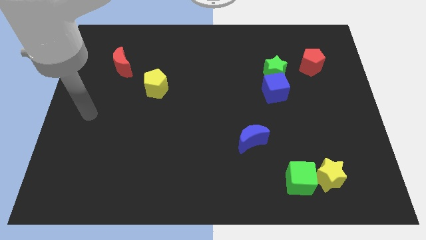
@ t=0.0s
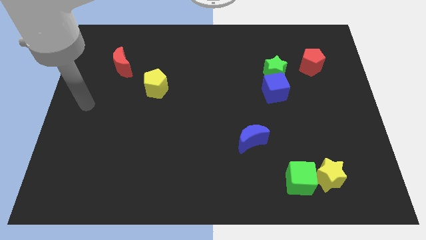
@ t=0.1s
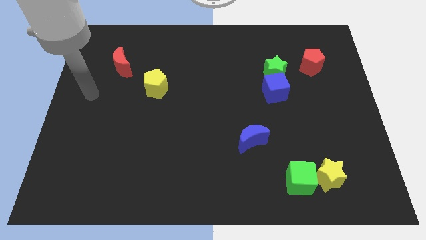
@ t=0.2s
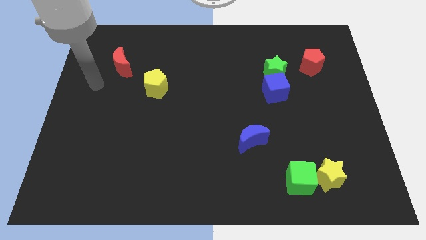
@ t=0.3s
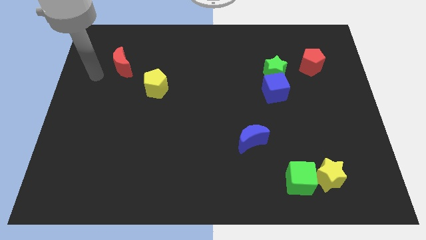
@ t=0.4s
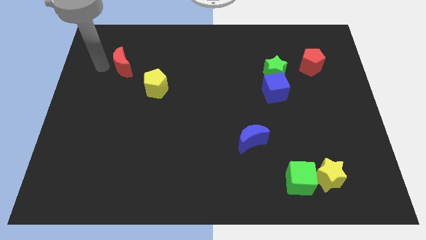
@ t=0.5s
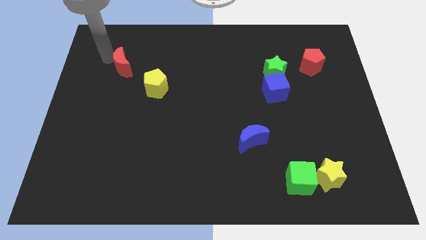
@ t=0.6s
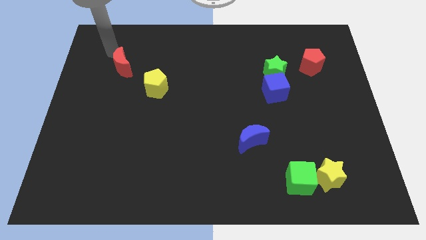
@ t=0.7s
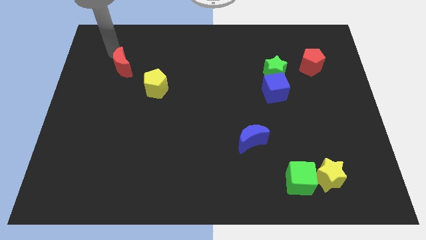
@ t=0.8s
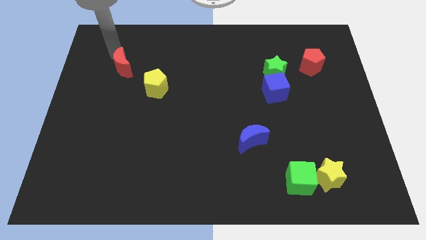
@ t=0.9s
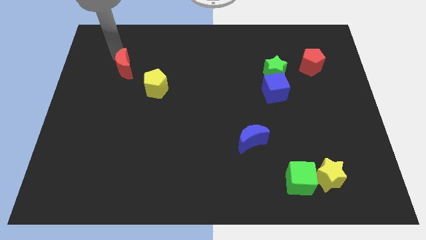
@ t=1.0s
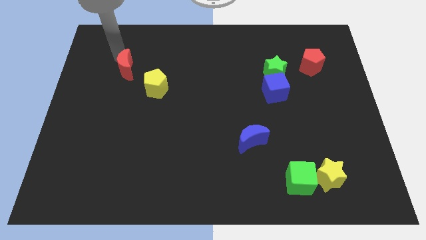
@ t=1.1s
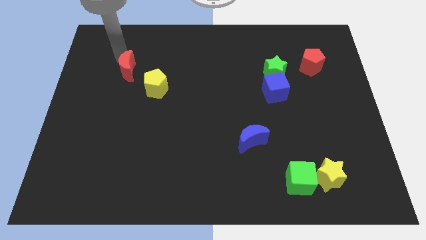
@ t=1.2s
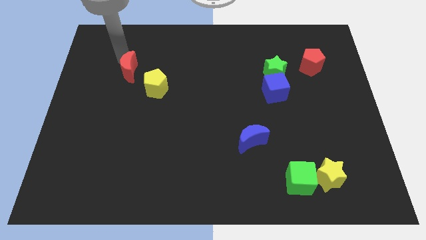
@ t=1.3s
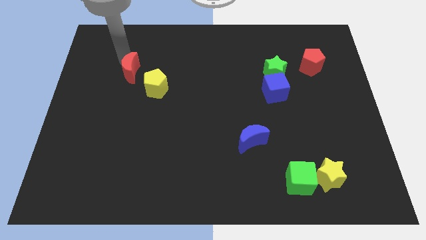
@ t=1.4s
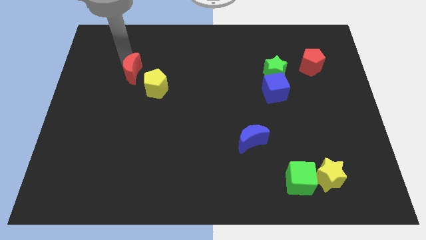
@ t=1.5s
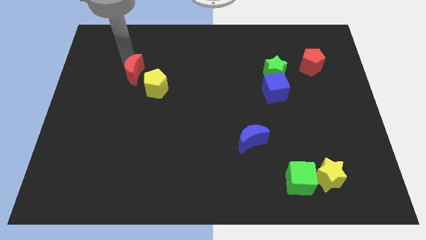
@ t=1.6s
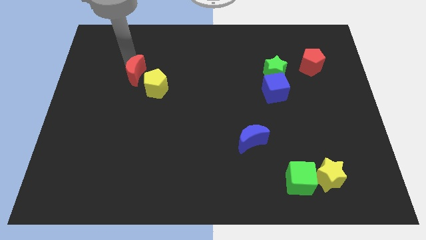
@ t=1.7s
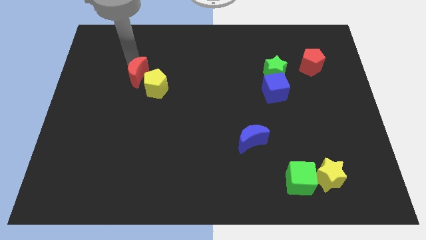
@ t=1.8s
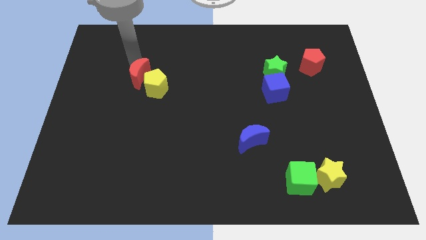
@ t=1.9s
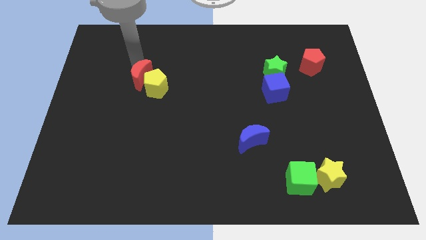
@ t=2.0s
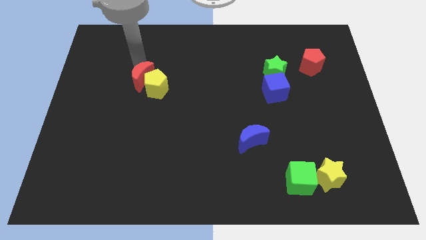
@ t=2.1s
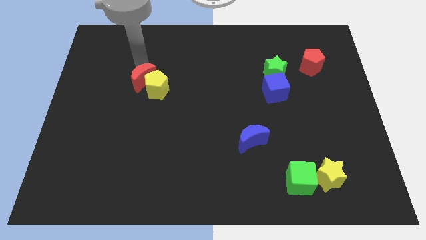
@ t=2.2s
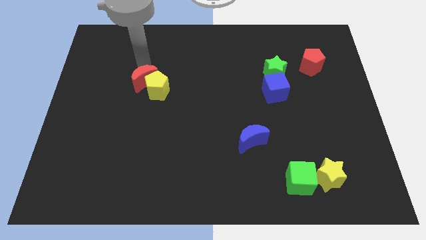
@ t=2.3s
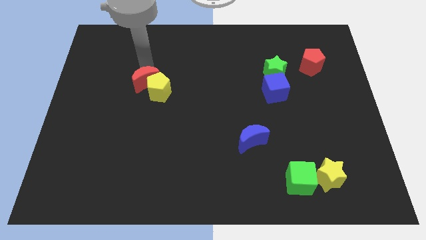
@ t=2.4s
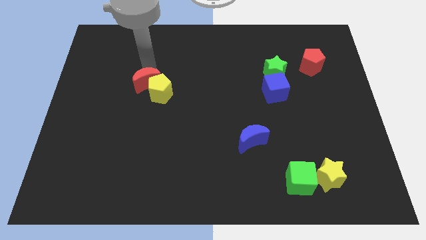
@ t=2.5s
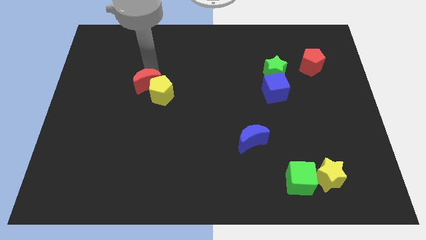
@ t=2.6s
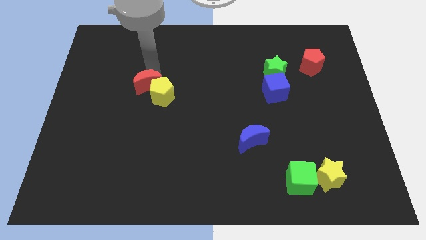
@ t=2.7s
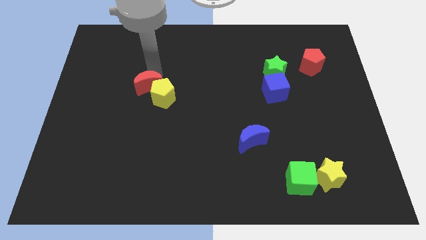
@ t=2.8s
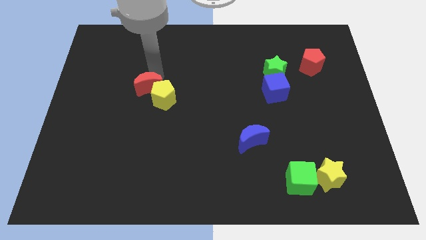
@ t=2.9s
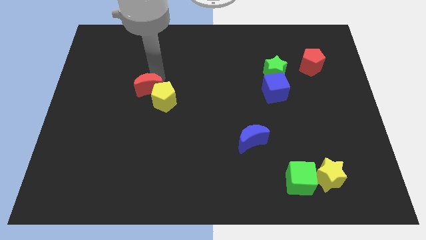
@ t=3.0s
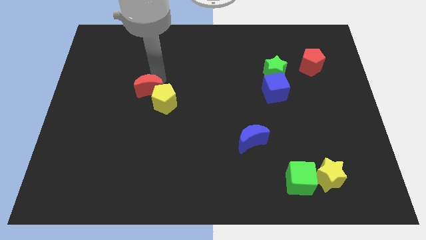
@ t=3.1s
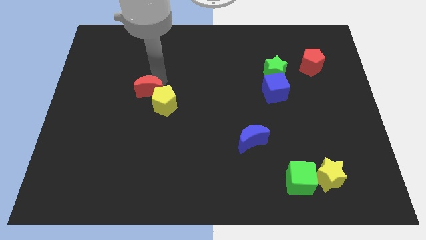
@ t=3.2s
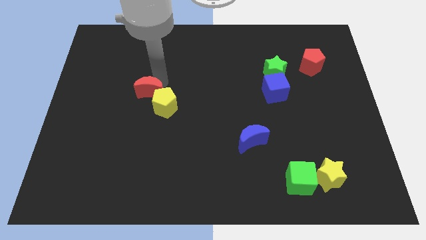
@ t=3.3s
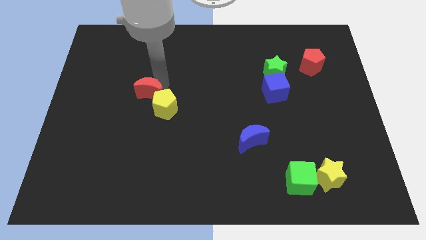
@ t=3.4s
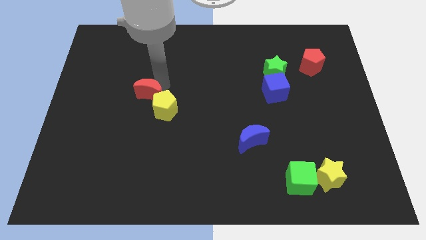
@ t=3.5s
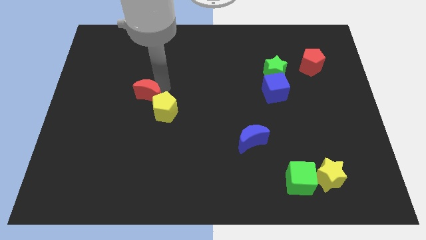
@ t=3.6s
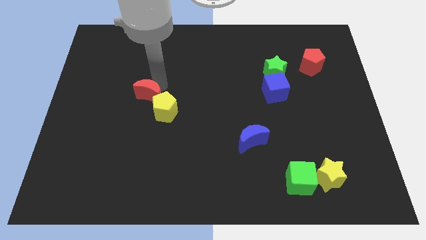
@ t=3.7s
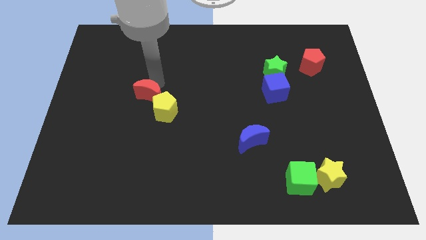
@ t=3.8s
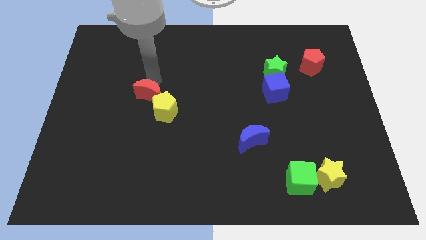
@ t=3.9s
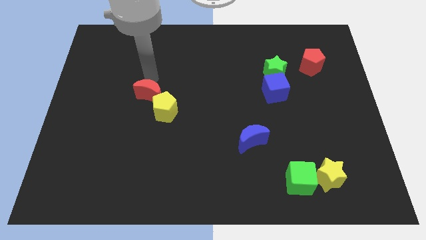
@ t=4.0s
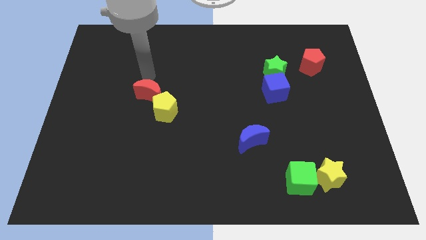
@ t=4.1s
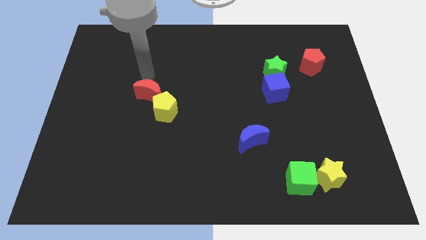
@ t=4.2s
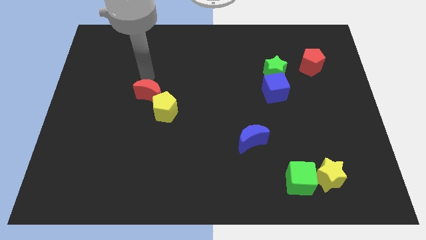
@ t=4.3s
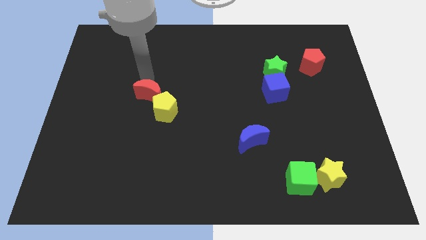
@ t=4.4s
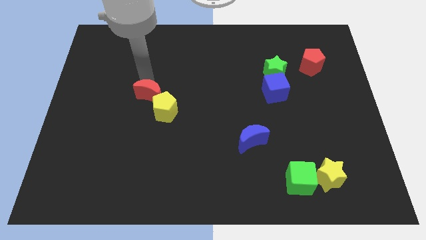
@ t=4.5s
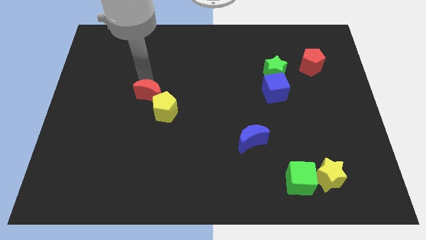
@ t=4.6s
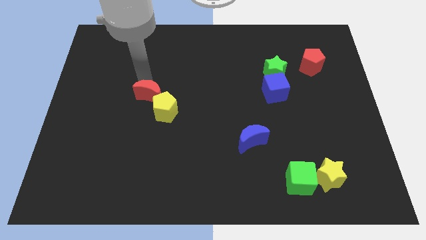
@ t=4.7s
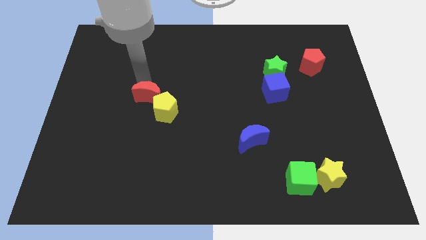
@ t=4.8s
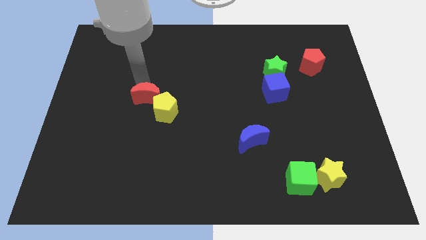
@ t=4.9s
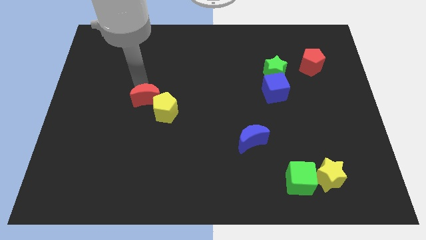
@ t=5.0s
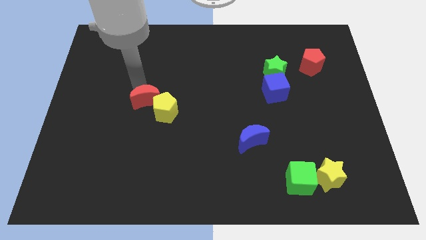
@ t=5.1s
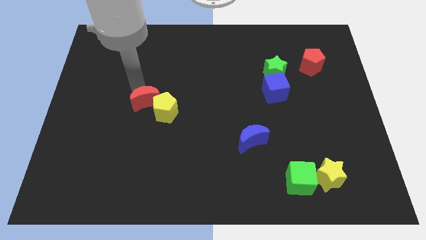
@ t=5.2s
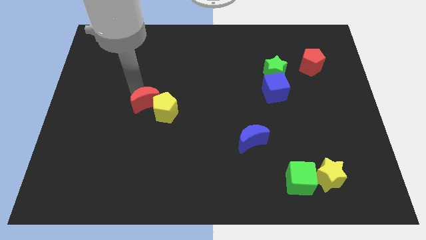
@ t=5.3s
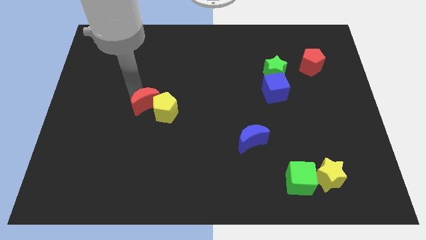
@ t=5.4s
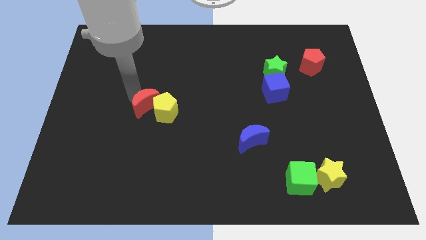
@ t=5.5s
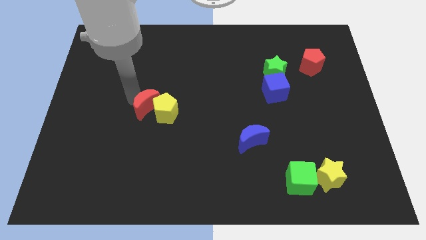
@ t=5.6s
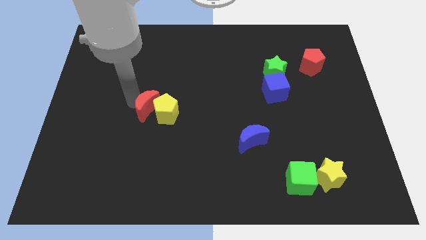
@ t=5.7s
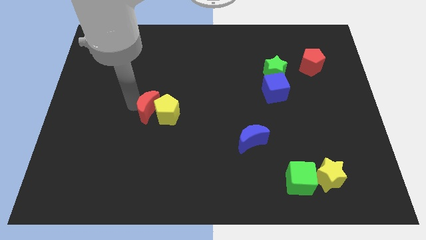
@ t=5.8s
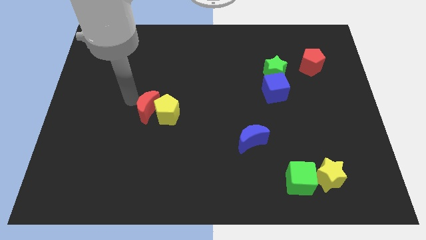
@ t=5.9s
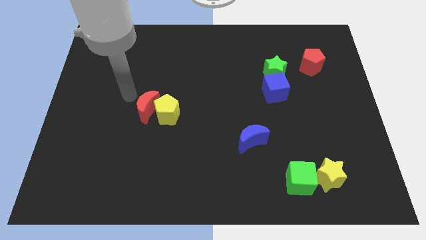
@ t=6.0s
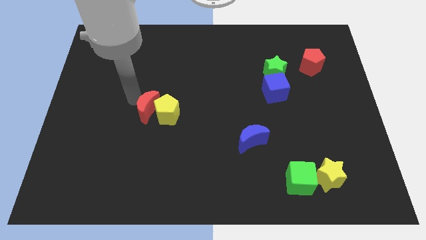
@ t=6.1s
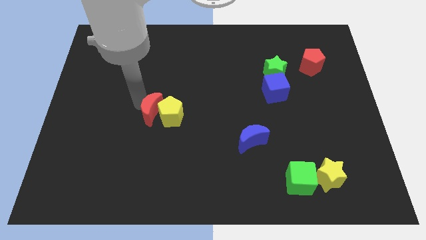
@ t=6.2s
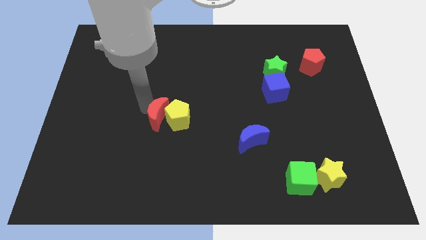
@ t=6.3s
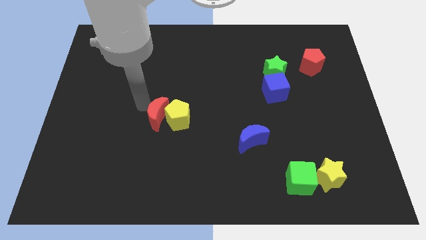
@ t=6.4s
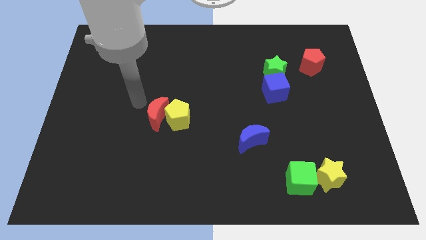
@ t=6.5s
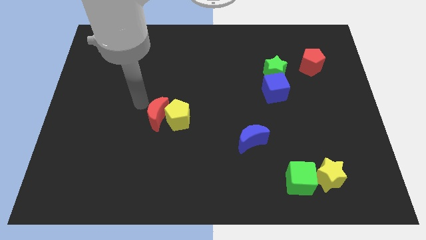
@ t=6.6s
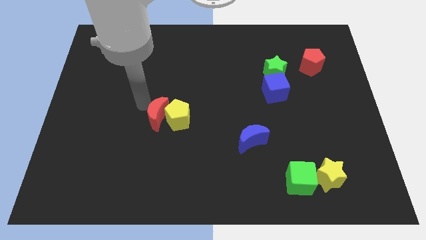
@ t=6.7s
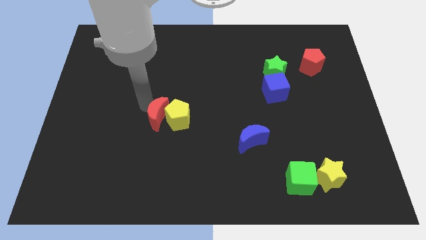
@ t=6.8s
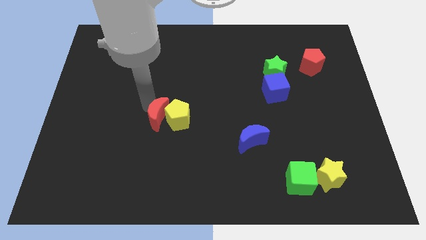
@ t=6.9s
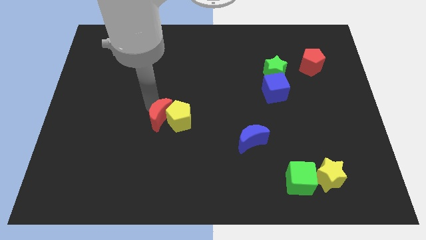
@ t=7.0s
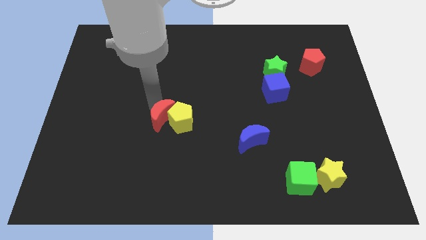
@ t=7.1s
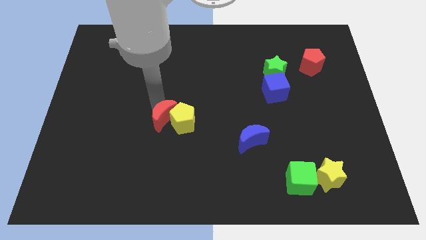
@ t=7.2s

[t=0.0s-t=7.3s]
push the red moon down and to the right diagonally

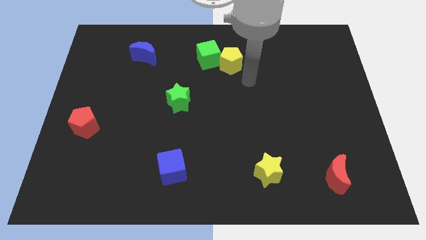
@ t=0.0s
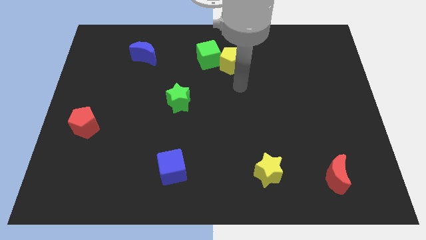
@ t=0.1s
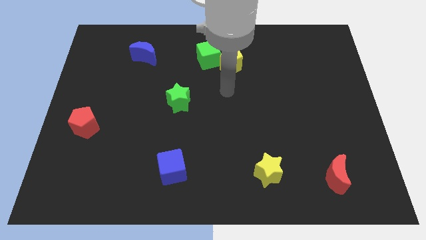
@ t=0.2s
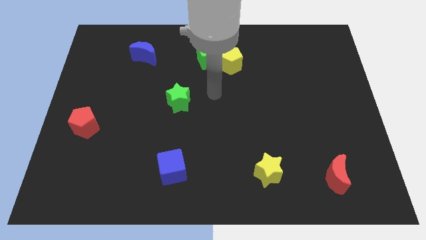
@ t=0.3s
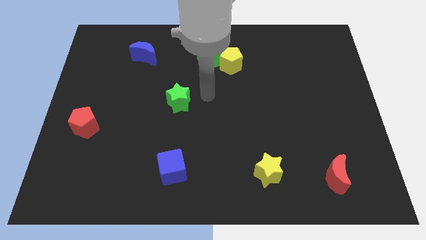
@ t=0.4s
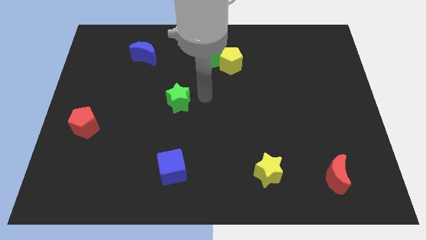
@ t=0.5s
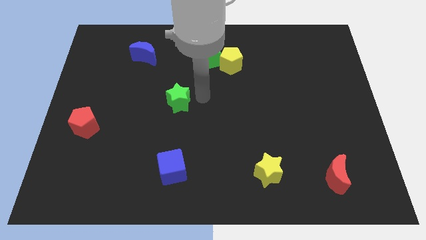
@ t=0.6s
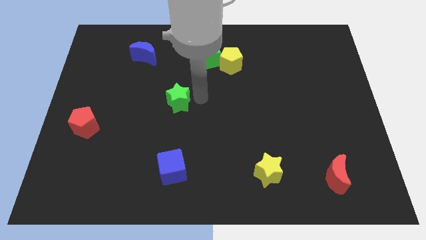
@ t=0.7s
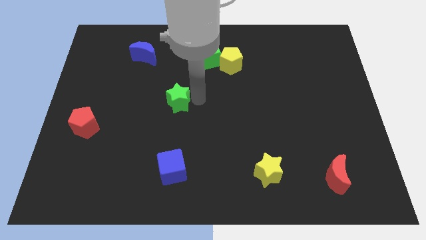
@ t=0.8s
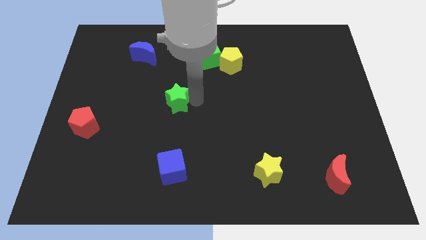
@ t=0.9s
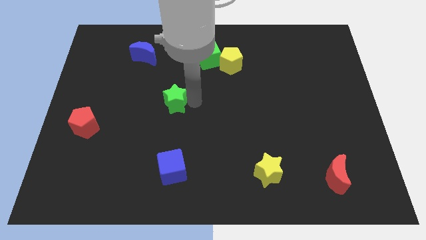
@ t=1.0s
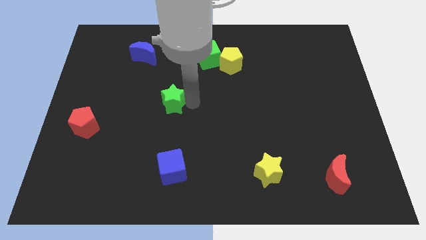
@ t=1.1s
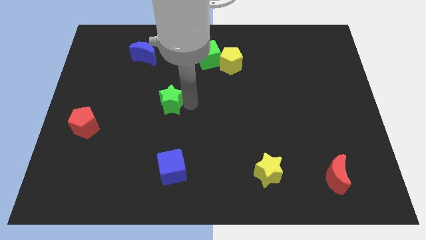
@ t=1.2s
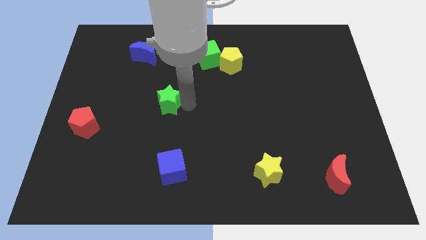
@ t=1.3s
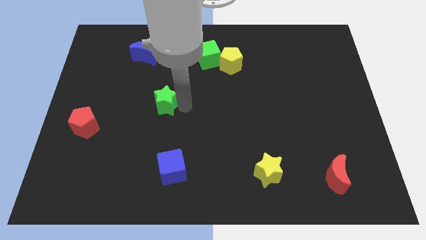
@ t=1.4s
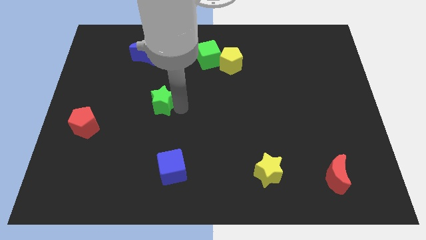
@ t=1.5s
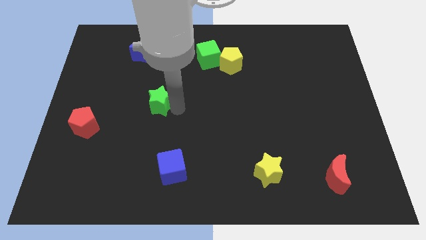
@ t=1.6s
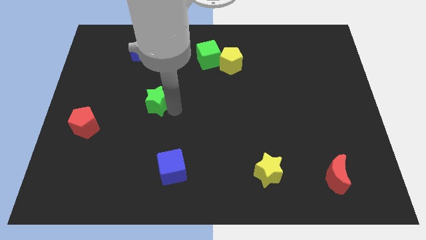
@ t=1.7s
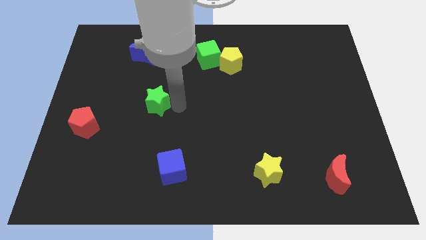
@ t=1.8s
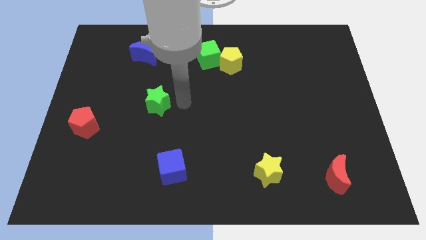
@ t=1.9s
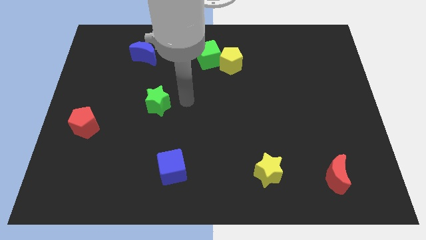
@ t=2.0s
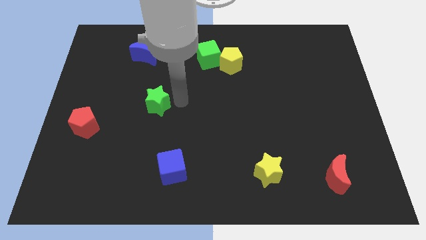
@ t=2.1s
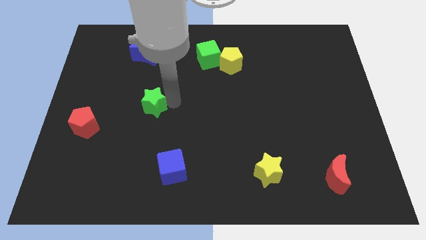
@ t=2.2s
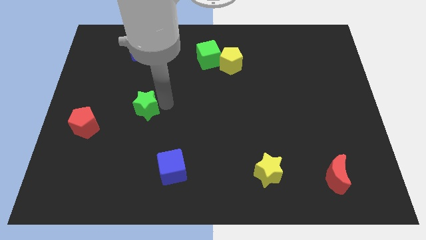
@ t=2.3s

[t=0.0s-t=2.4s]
move the green star to the left a bit
